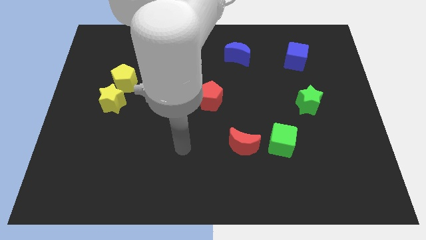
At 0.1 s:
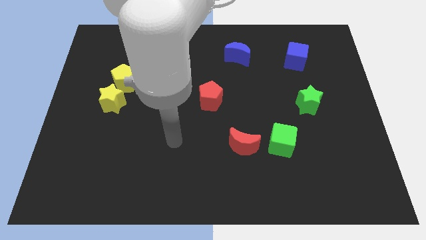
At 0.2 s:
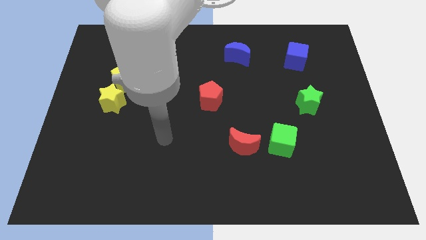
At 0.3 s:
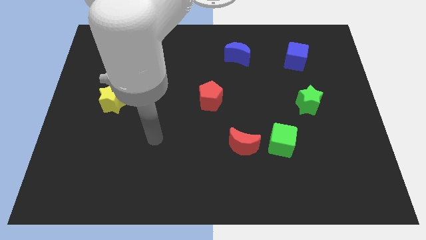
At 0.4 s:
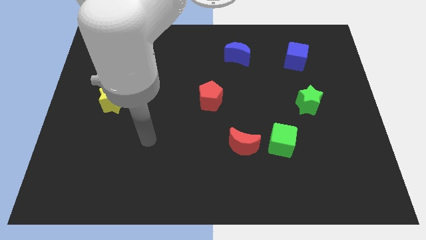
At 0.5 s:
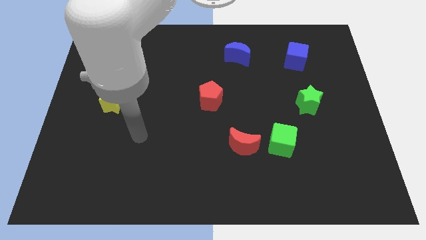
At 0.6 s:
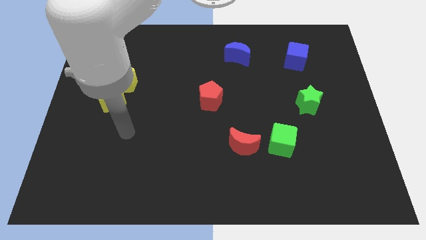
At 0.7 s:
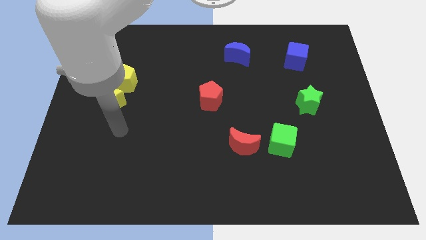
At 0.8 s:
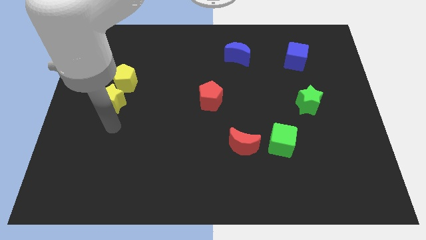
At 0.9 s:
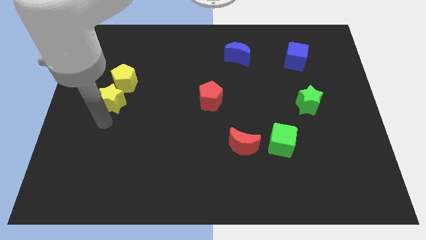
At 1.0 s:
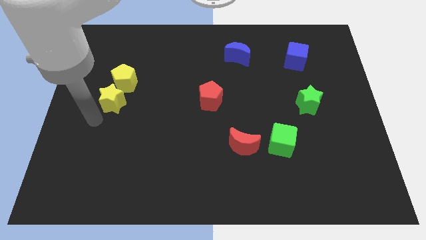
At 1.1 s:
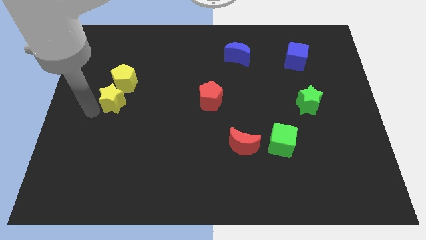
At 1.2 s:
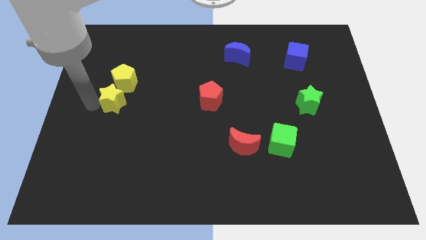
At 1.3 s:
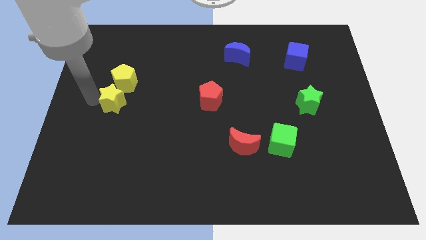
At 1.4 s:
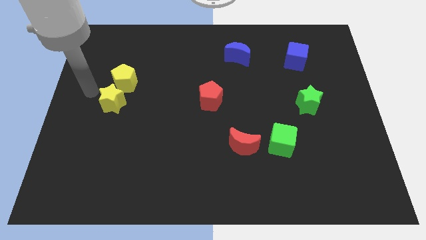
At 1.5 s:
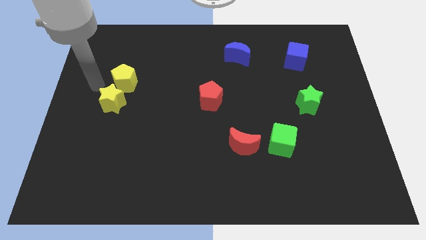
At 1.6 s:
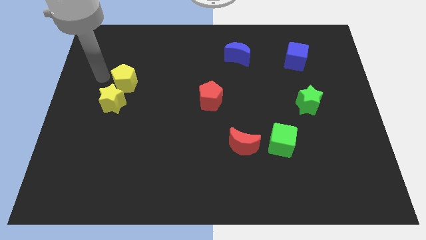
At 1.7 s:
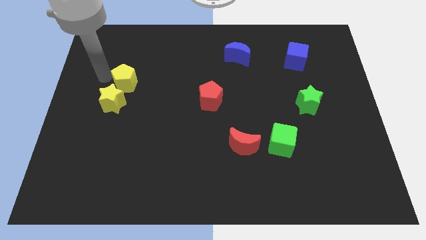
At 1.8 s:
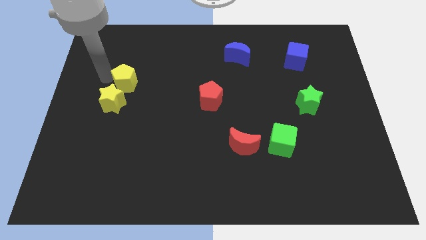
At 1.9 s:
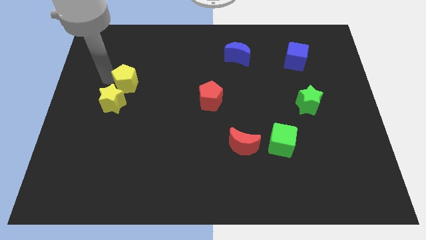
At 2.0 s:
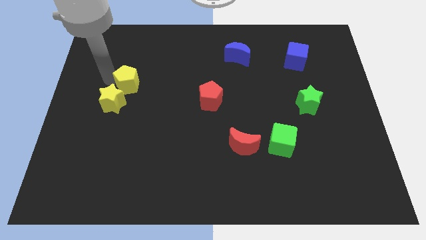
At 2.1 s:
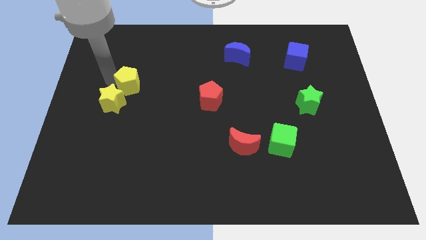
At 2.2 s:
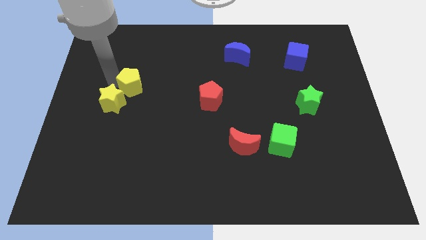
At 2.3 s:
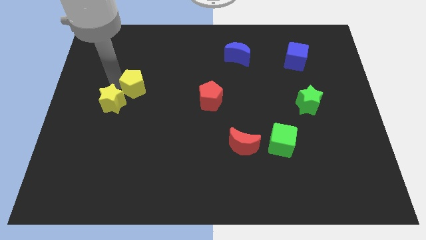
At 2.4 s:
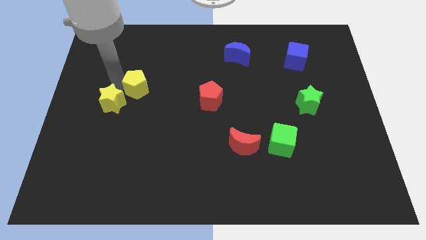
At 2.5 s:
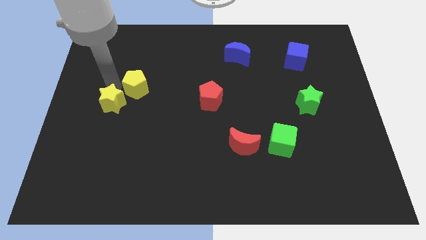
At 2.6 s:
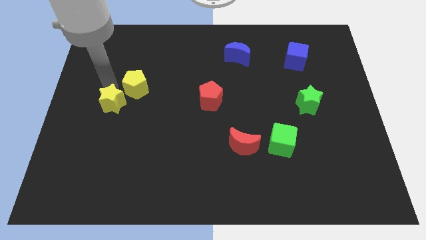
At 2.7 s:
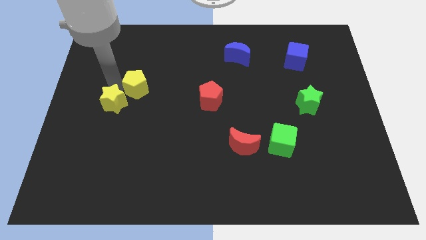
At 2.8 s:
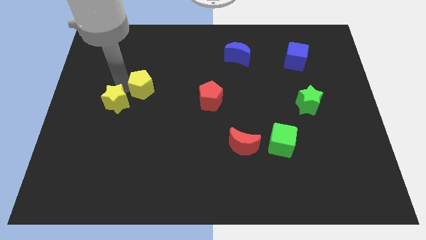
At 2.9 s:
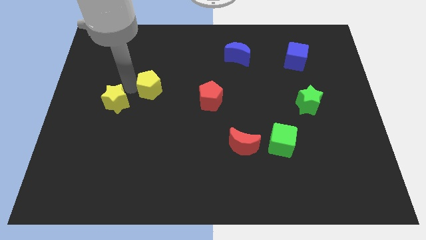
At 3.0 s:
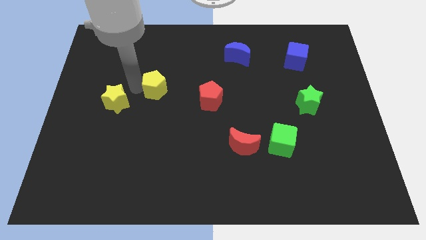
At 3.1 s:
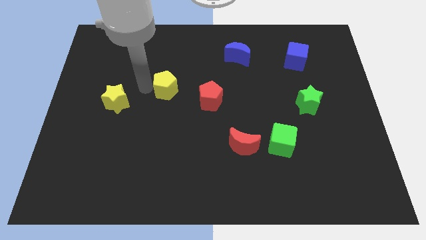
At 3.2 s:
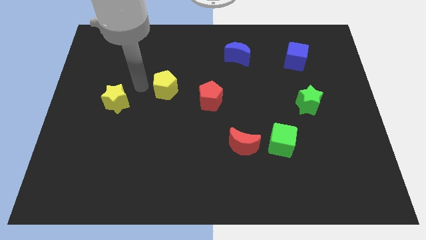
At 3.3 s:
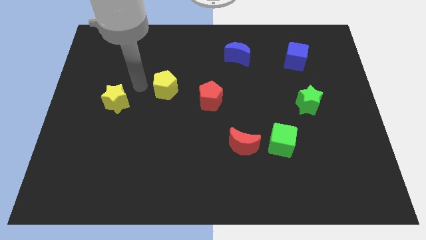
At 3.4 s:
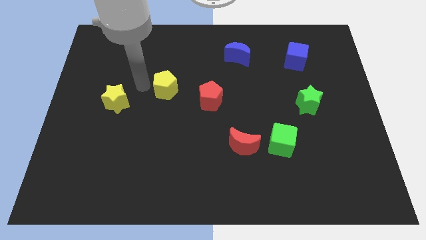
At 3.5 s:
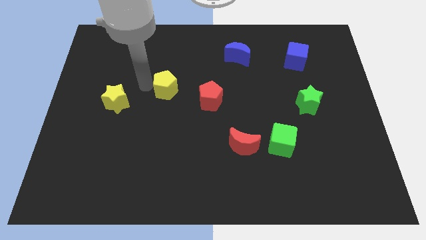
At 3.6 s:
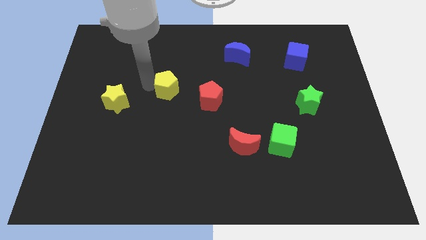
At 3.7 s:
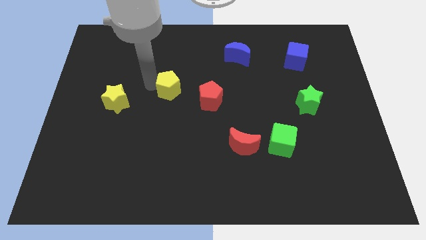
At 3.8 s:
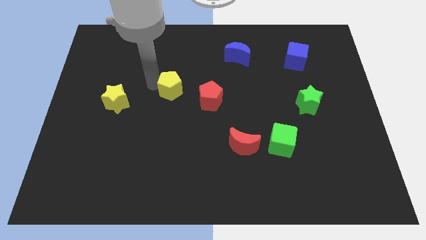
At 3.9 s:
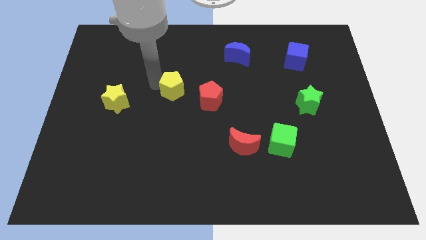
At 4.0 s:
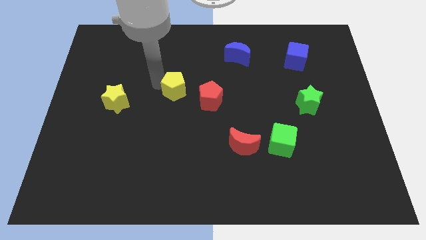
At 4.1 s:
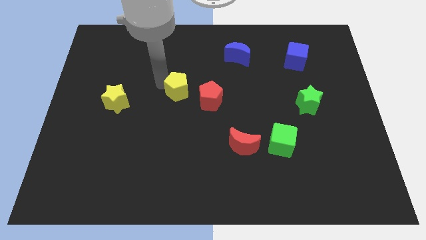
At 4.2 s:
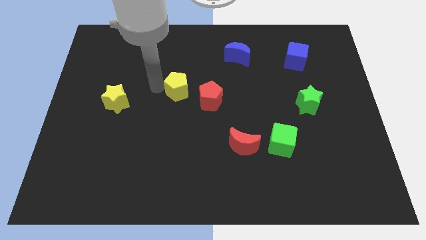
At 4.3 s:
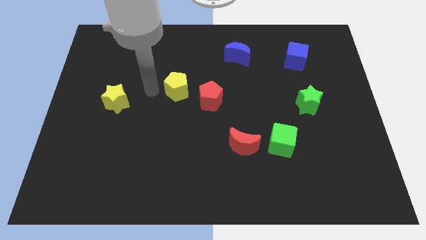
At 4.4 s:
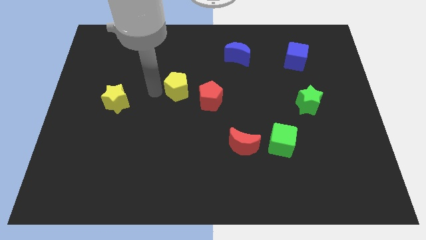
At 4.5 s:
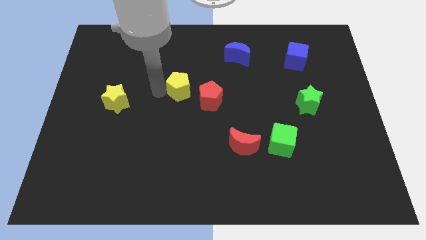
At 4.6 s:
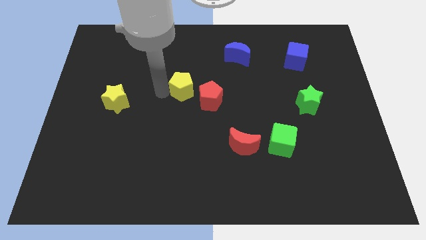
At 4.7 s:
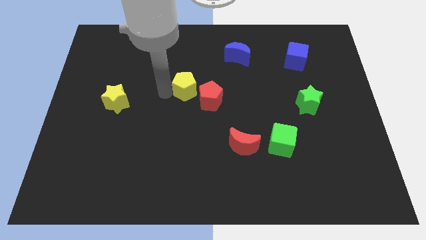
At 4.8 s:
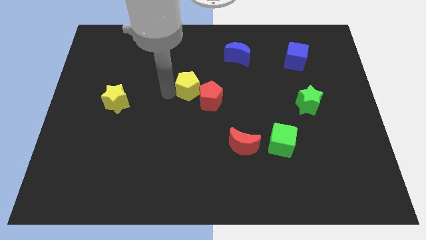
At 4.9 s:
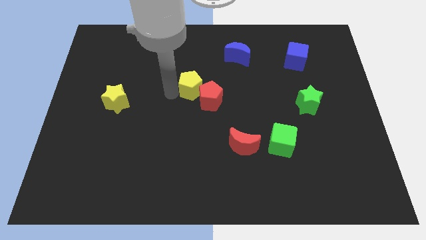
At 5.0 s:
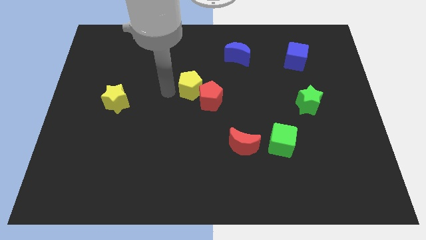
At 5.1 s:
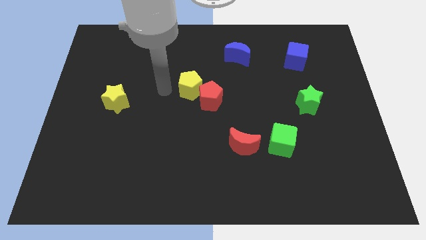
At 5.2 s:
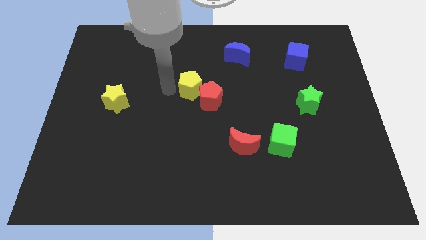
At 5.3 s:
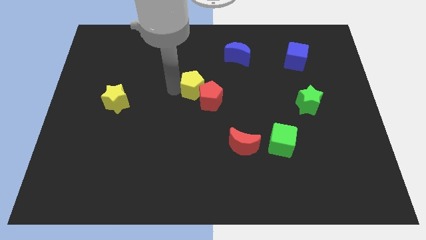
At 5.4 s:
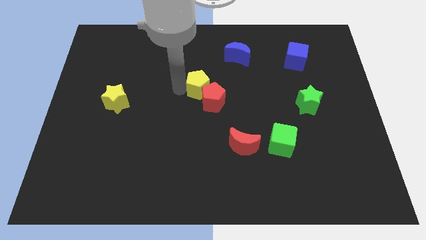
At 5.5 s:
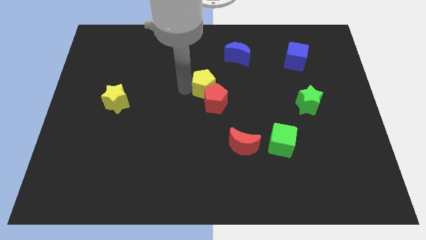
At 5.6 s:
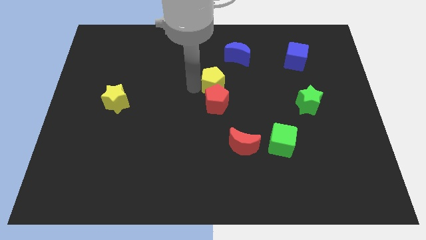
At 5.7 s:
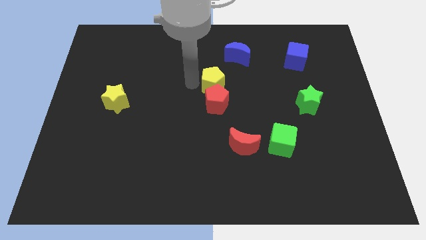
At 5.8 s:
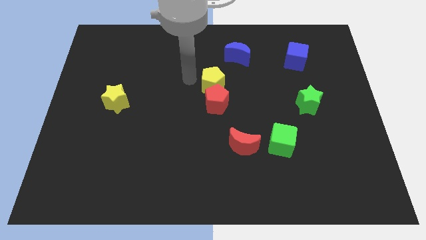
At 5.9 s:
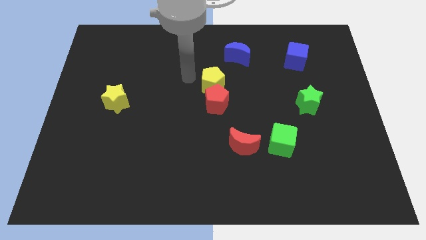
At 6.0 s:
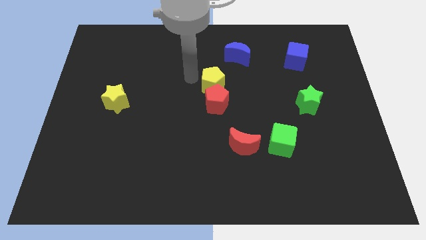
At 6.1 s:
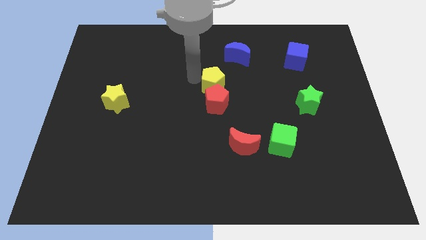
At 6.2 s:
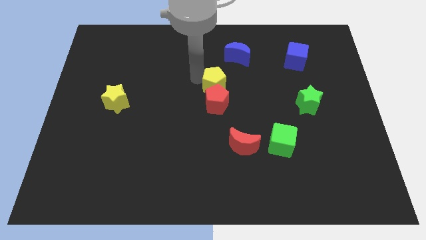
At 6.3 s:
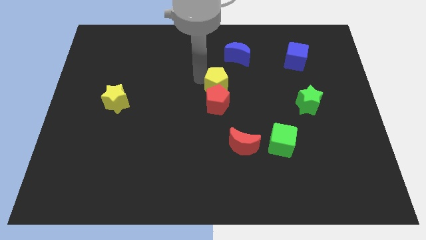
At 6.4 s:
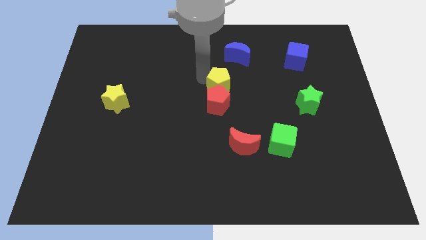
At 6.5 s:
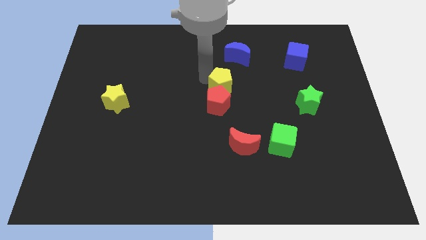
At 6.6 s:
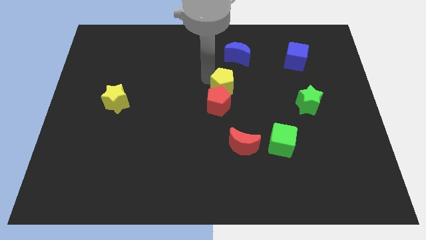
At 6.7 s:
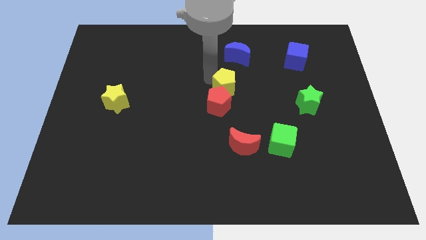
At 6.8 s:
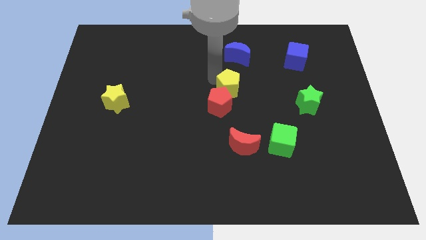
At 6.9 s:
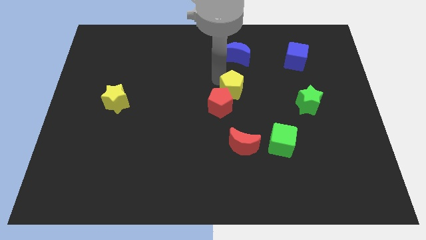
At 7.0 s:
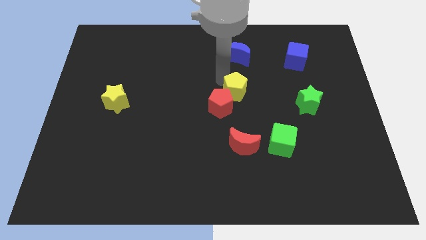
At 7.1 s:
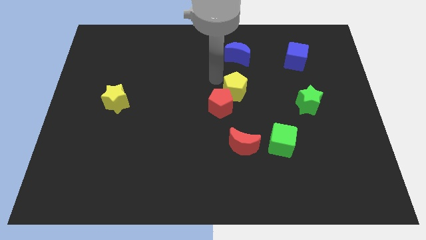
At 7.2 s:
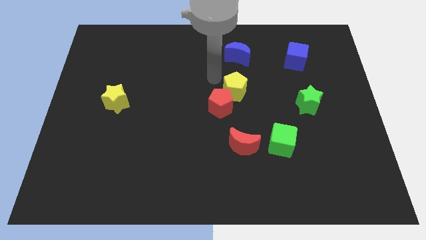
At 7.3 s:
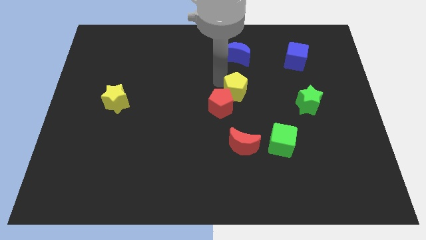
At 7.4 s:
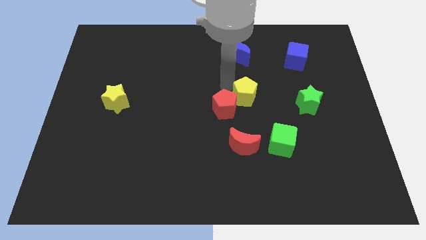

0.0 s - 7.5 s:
move the yellow pentagon to the right side of the red pentagon
